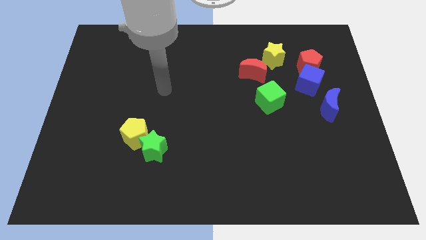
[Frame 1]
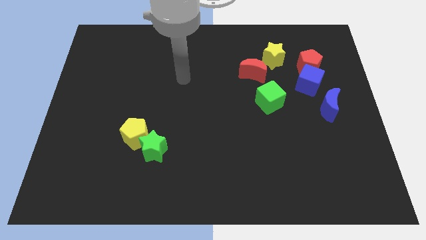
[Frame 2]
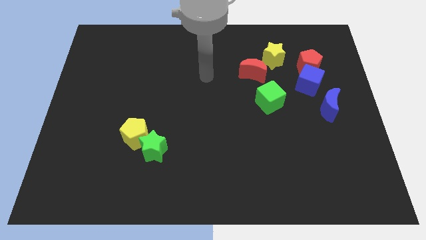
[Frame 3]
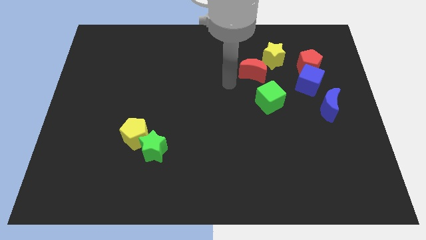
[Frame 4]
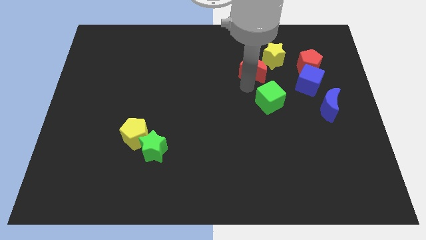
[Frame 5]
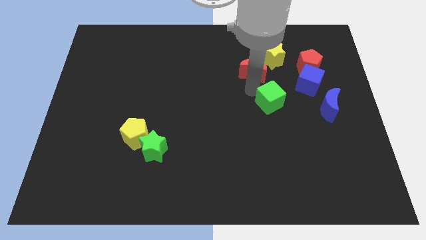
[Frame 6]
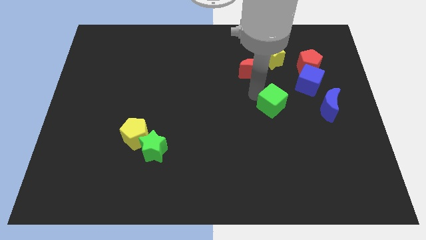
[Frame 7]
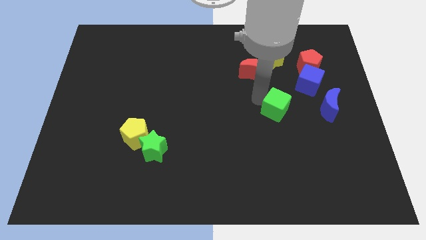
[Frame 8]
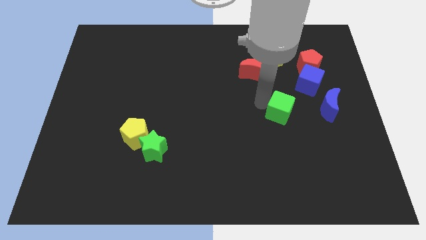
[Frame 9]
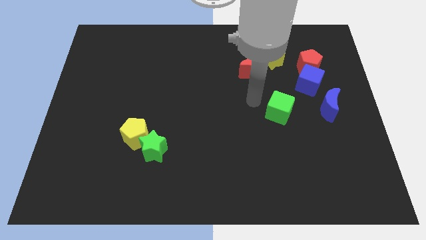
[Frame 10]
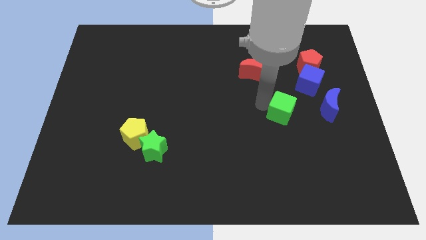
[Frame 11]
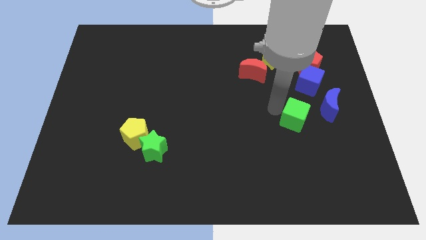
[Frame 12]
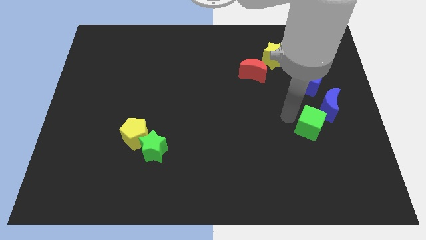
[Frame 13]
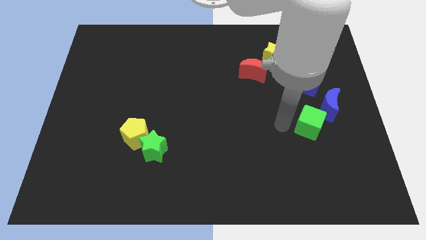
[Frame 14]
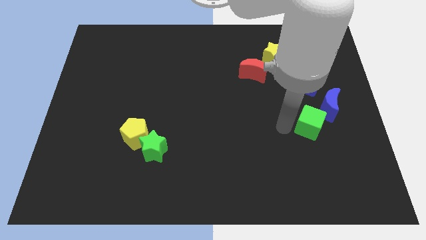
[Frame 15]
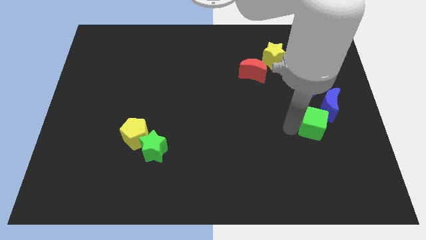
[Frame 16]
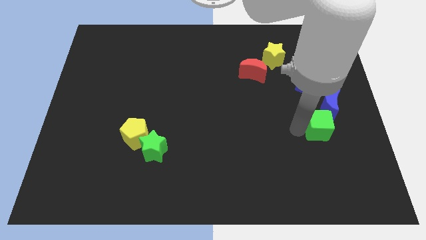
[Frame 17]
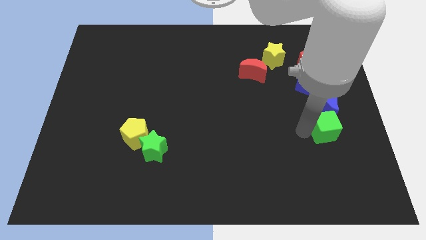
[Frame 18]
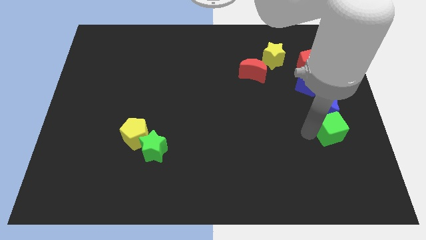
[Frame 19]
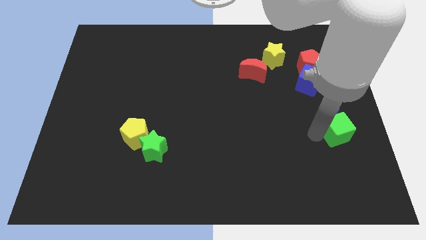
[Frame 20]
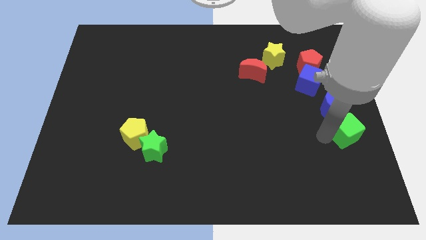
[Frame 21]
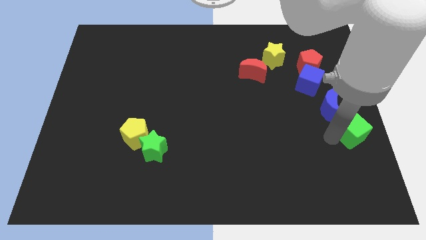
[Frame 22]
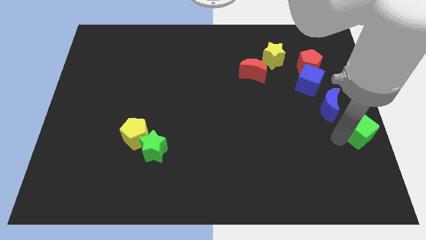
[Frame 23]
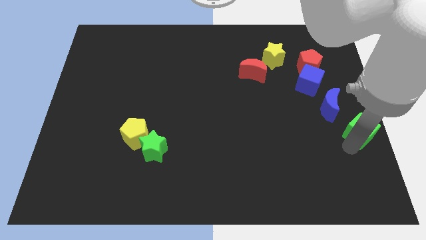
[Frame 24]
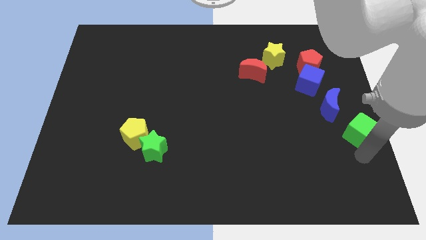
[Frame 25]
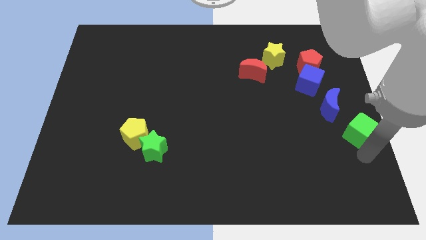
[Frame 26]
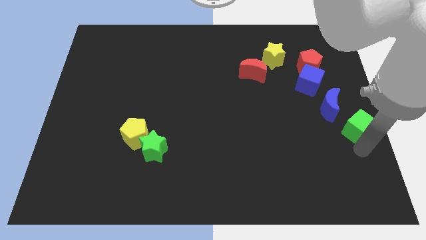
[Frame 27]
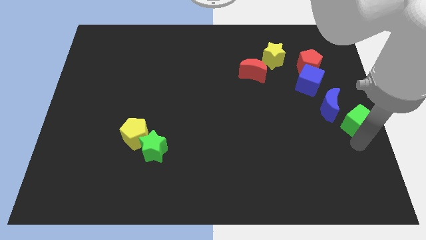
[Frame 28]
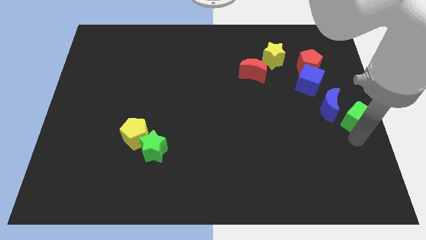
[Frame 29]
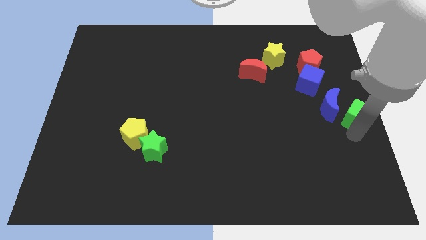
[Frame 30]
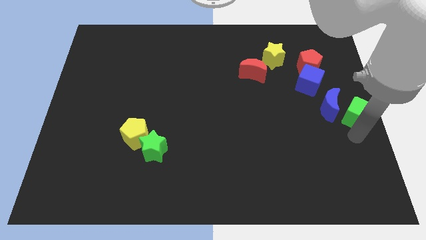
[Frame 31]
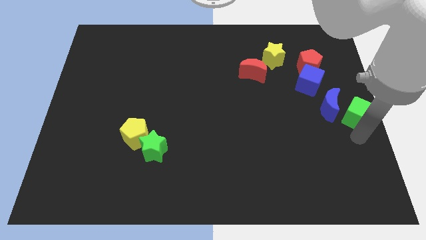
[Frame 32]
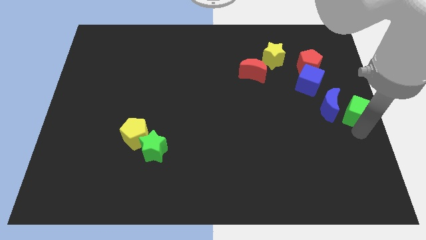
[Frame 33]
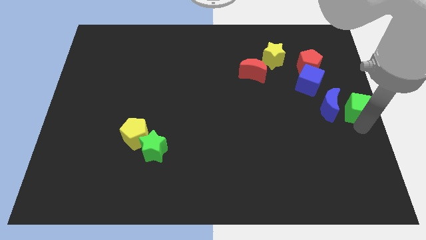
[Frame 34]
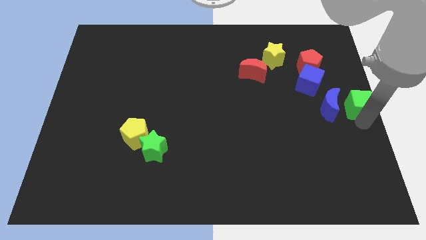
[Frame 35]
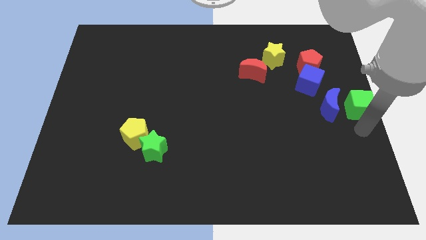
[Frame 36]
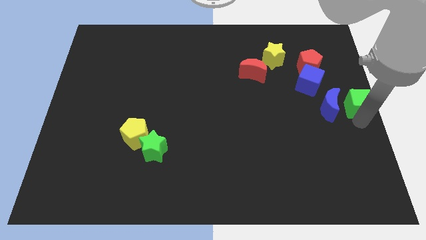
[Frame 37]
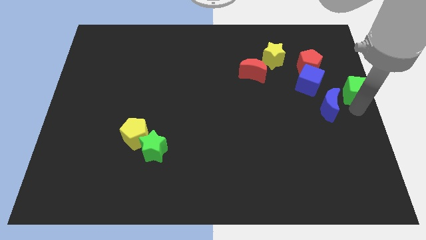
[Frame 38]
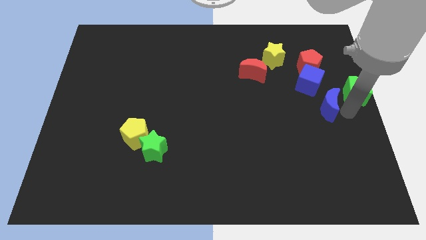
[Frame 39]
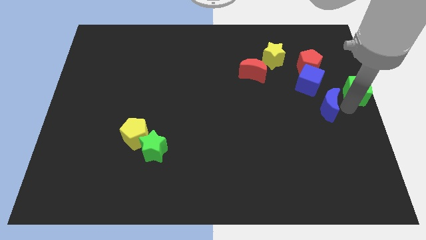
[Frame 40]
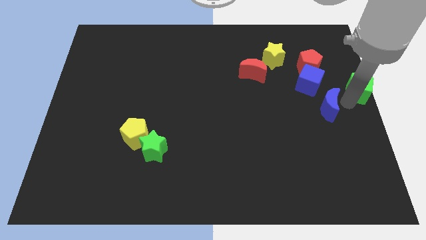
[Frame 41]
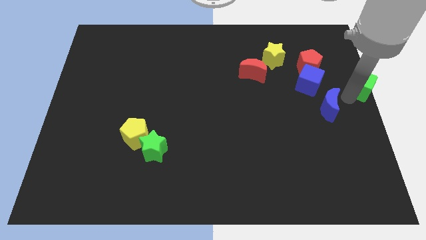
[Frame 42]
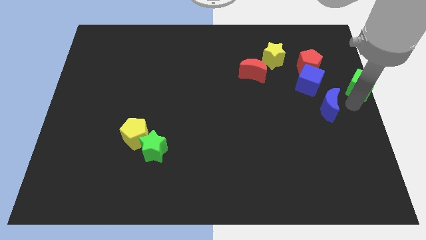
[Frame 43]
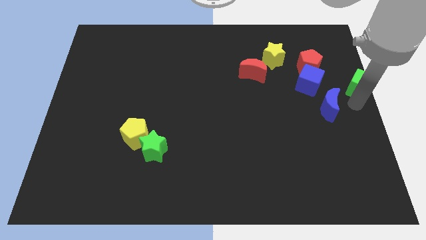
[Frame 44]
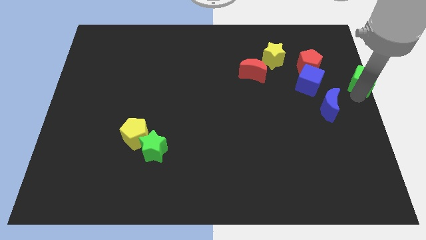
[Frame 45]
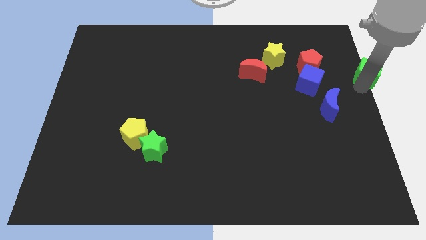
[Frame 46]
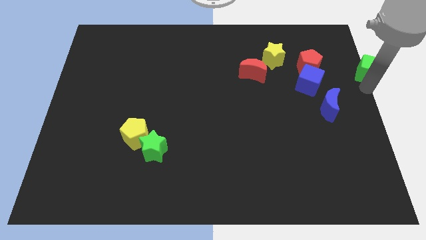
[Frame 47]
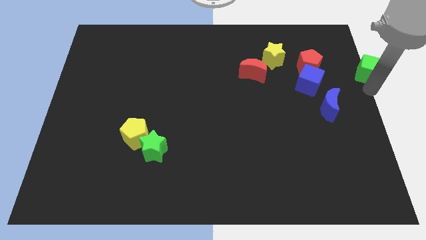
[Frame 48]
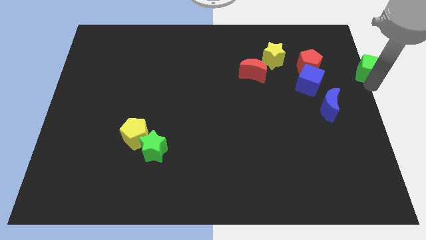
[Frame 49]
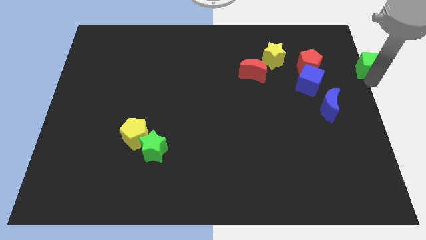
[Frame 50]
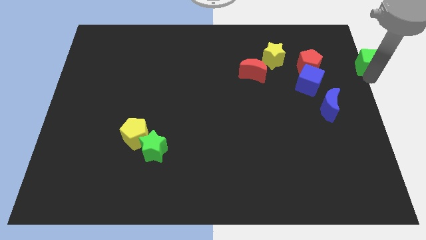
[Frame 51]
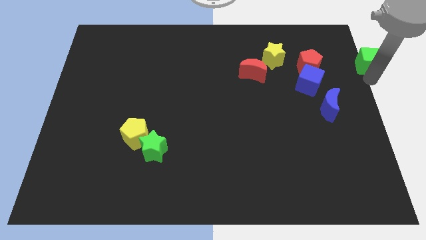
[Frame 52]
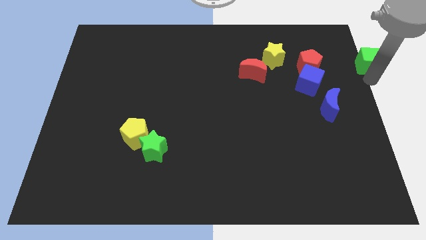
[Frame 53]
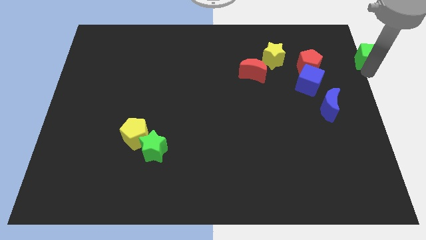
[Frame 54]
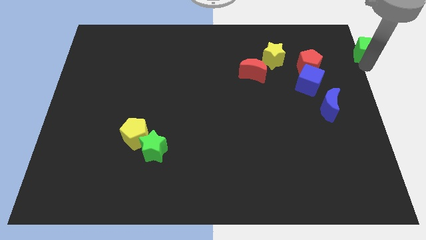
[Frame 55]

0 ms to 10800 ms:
put the green cube to the top right corner
